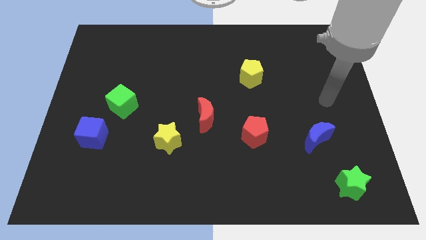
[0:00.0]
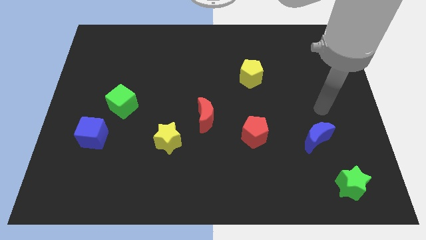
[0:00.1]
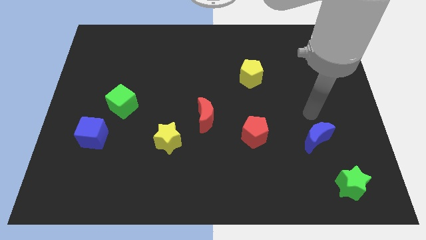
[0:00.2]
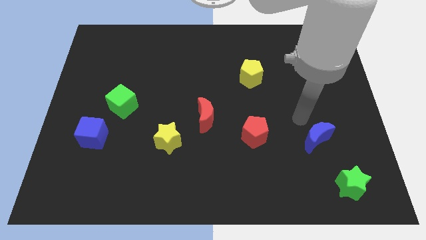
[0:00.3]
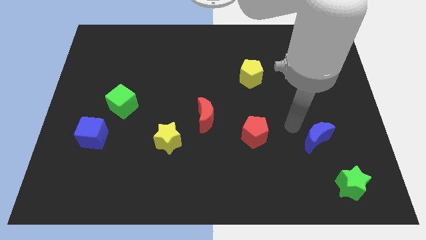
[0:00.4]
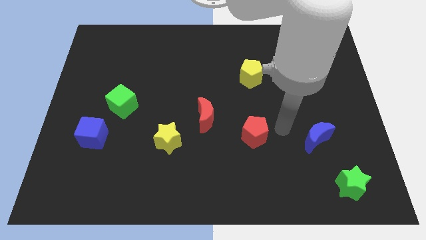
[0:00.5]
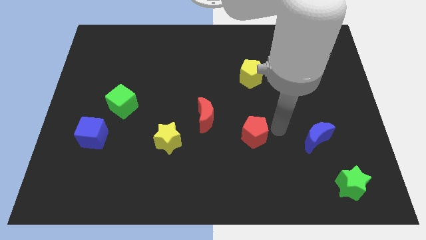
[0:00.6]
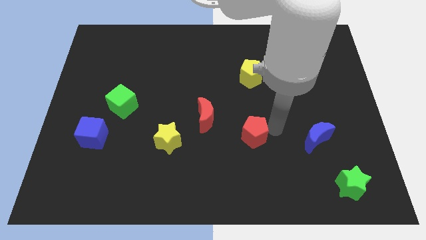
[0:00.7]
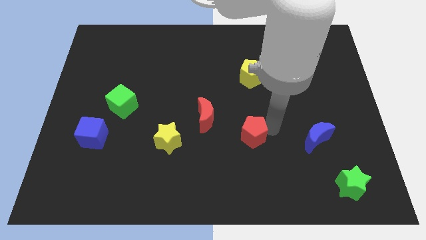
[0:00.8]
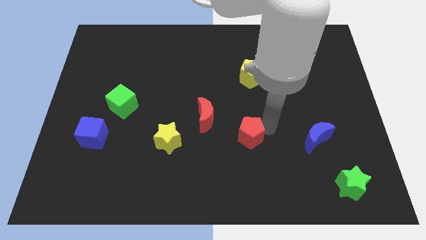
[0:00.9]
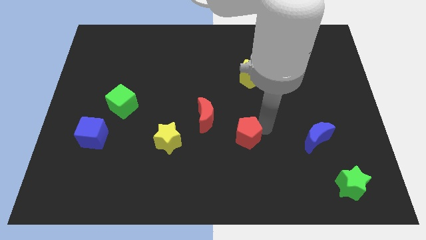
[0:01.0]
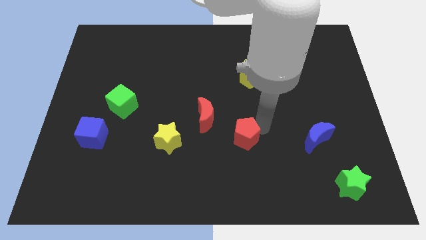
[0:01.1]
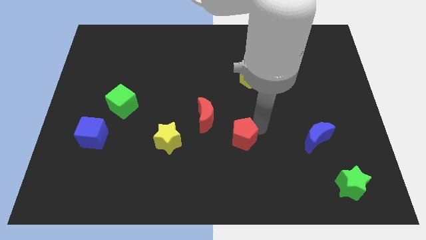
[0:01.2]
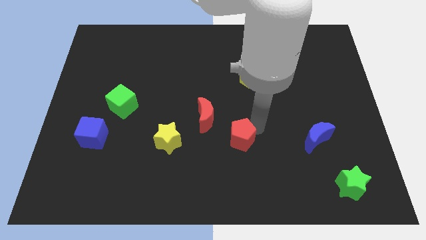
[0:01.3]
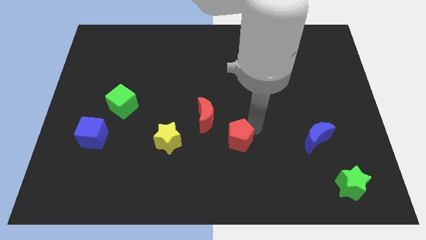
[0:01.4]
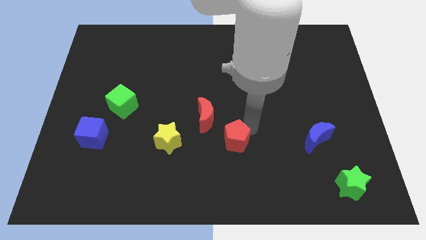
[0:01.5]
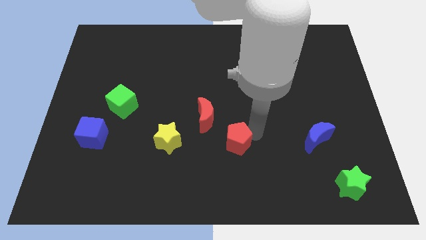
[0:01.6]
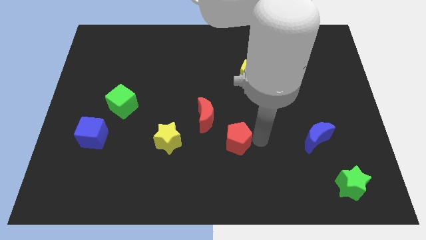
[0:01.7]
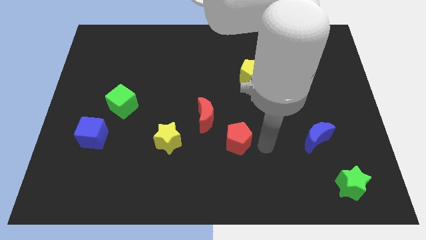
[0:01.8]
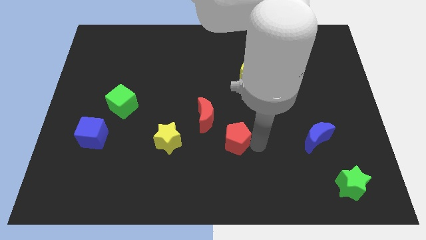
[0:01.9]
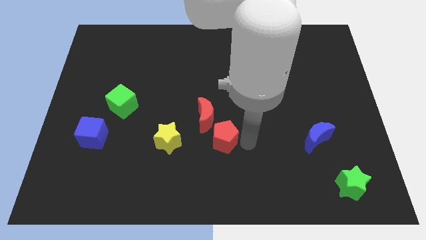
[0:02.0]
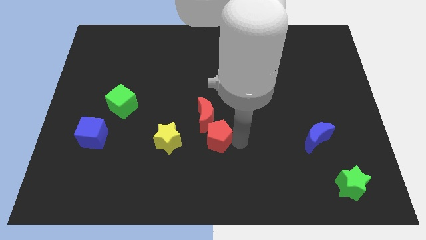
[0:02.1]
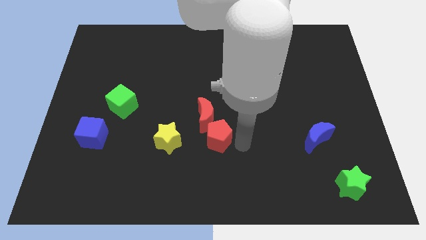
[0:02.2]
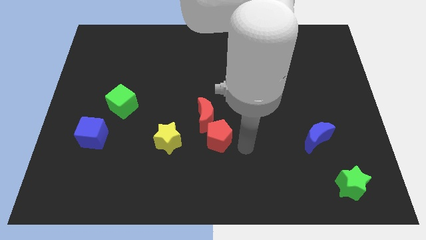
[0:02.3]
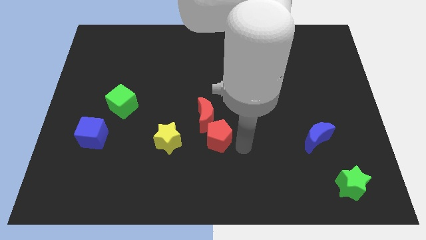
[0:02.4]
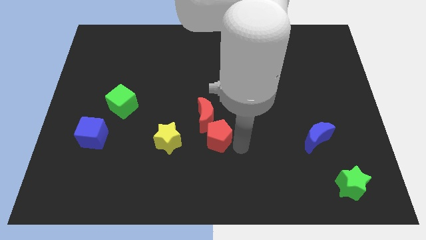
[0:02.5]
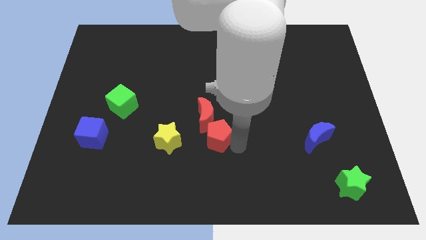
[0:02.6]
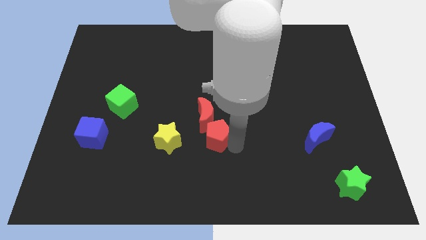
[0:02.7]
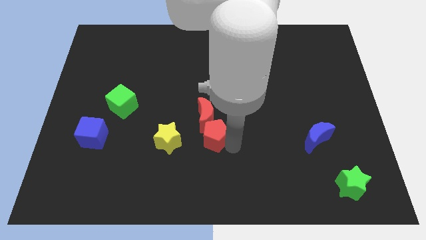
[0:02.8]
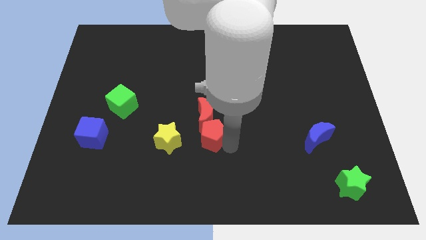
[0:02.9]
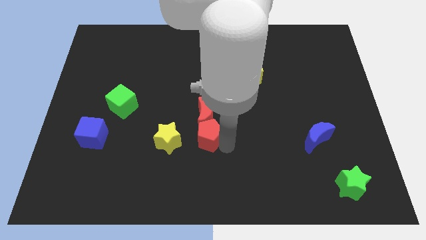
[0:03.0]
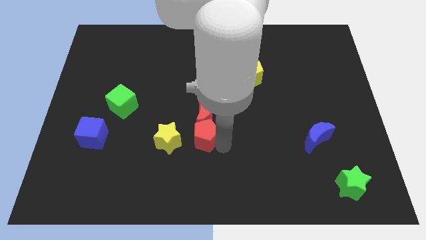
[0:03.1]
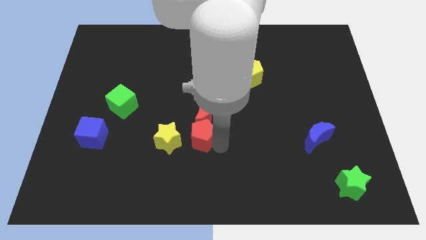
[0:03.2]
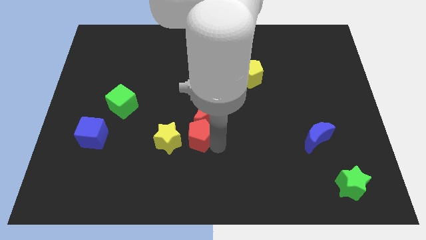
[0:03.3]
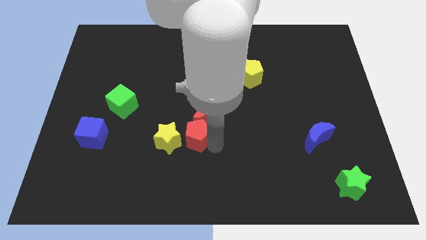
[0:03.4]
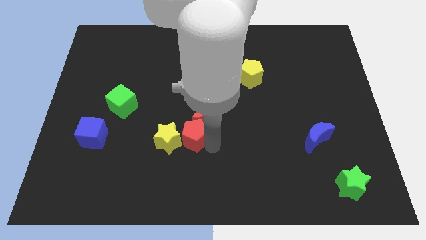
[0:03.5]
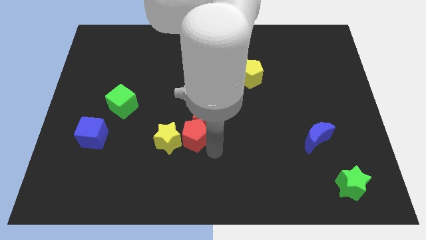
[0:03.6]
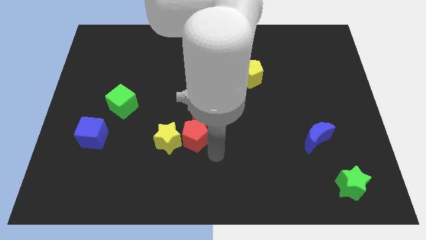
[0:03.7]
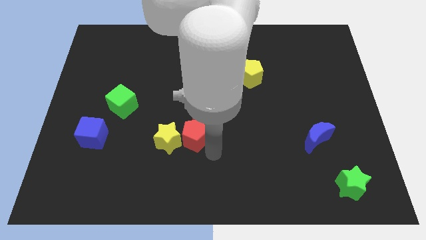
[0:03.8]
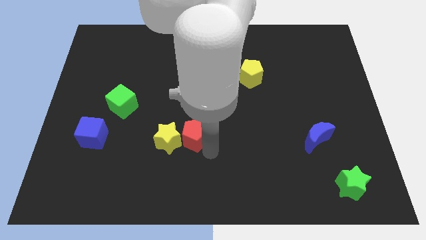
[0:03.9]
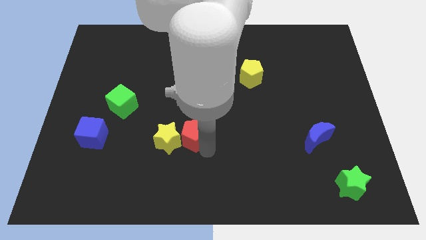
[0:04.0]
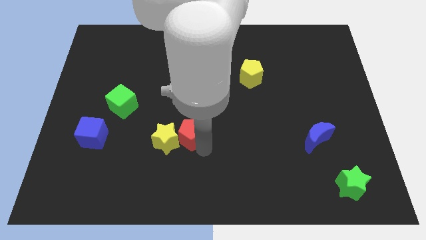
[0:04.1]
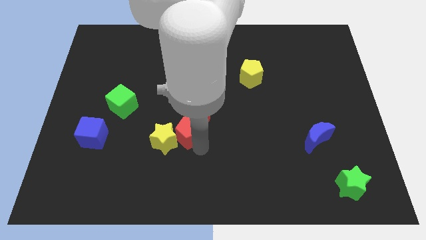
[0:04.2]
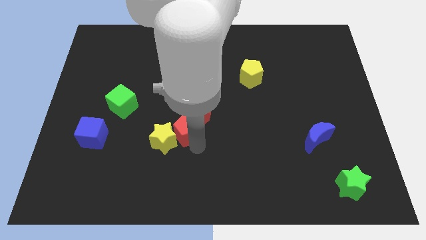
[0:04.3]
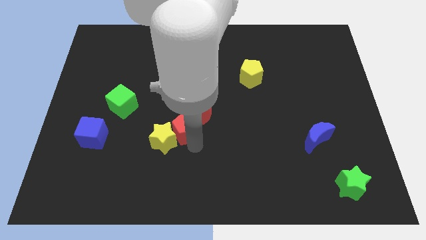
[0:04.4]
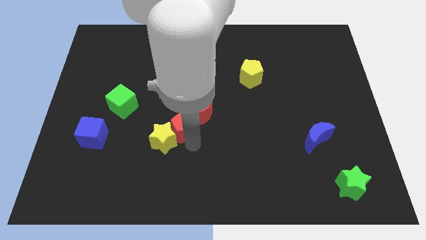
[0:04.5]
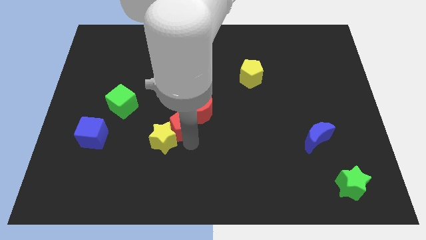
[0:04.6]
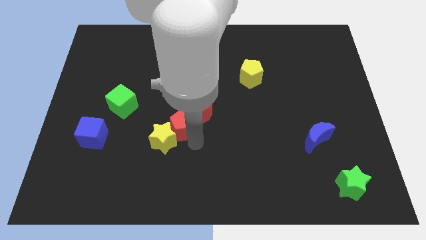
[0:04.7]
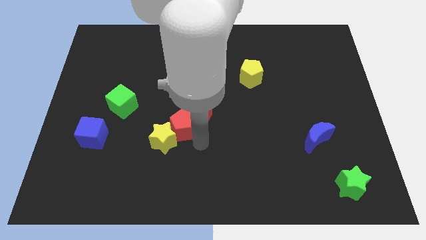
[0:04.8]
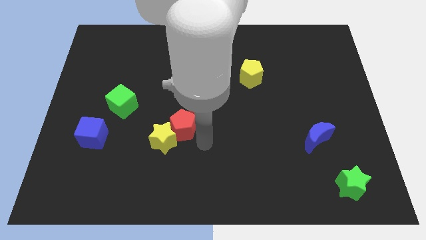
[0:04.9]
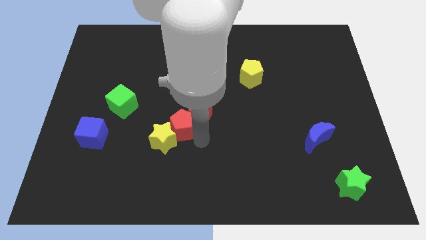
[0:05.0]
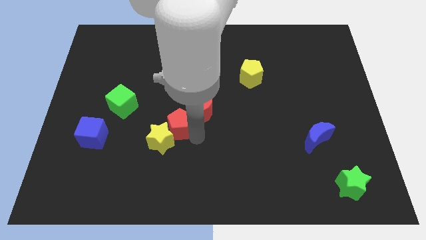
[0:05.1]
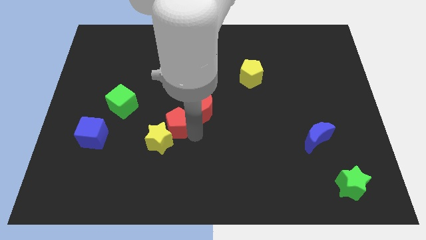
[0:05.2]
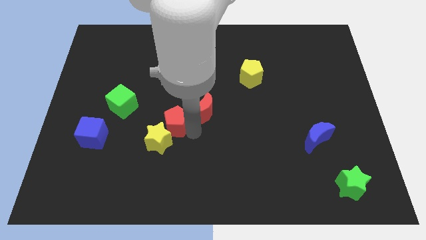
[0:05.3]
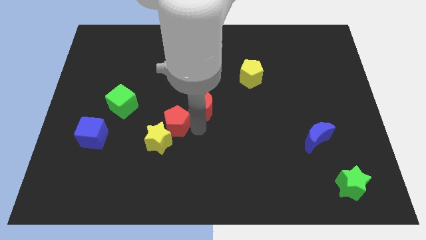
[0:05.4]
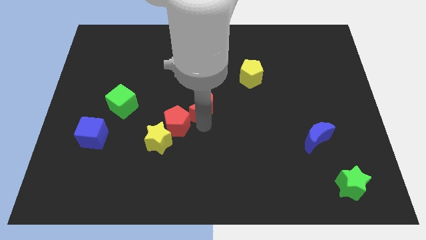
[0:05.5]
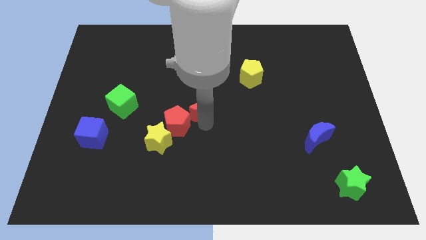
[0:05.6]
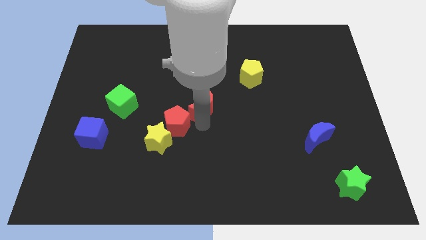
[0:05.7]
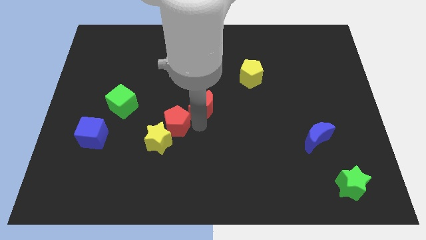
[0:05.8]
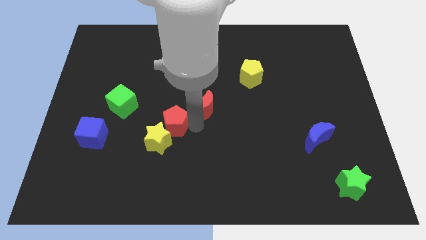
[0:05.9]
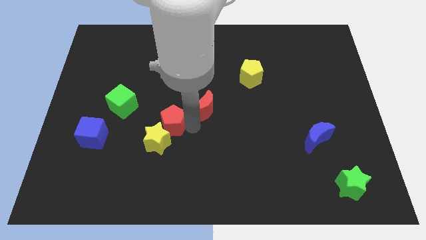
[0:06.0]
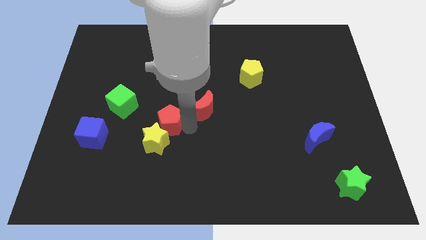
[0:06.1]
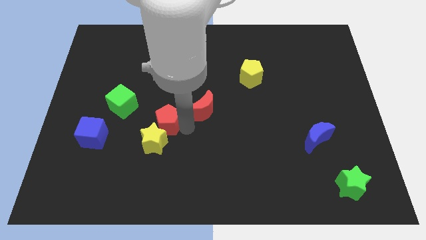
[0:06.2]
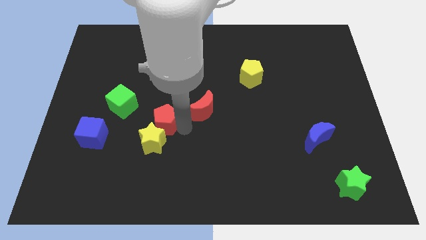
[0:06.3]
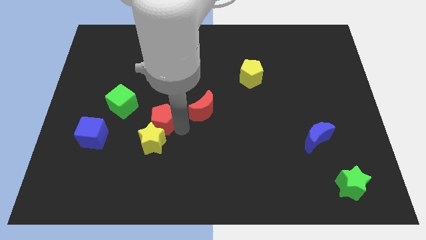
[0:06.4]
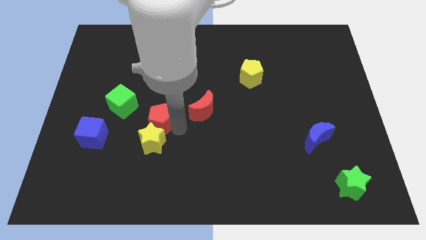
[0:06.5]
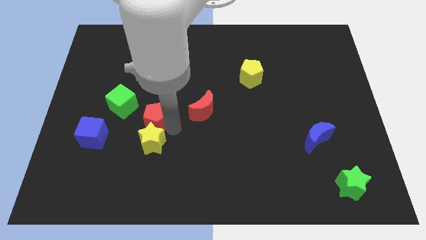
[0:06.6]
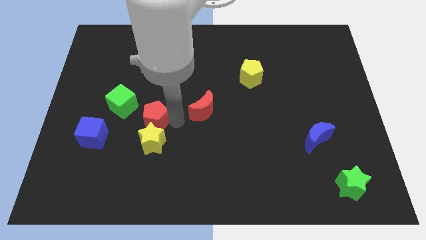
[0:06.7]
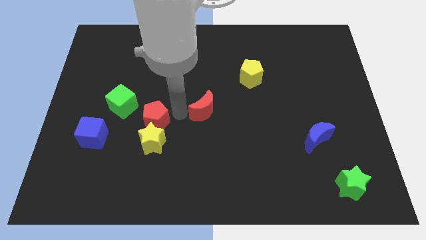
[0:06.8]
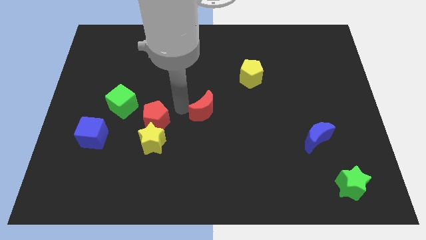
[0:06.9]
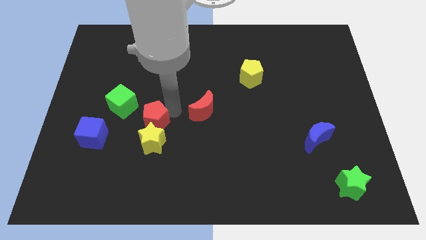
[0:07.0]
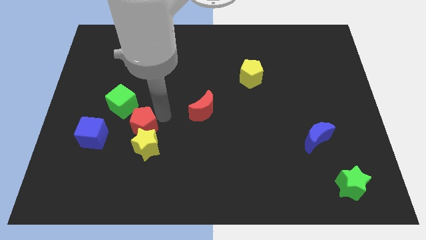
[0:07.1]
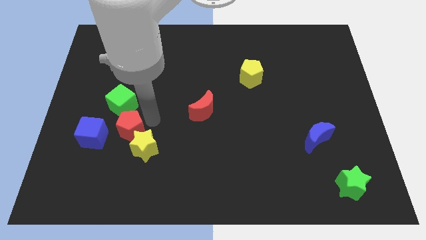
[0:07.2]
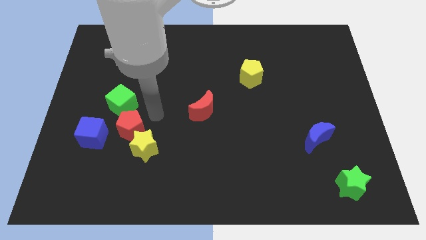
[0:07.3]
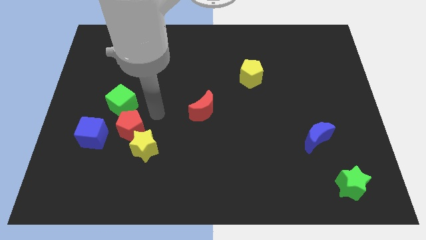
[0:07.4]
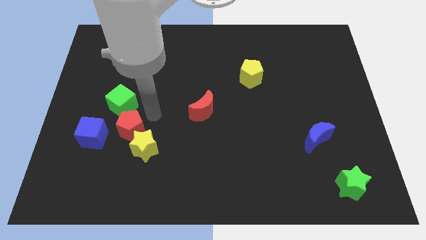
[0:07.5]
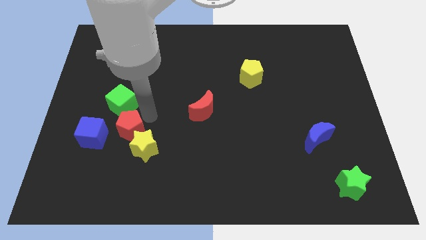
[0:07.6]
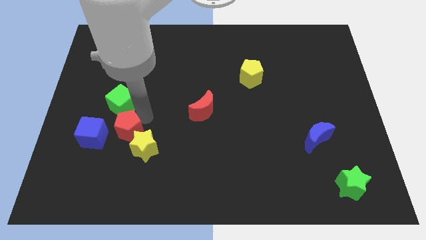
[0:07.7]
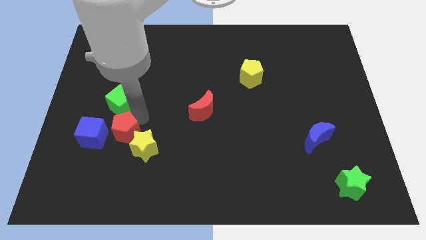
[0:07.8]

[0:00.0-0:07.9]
push the red pentagon just left of the yellow star
